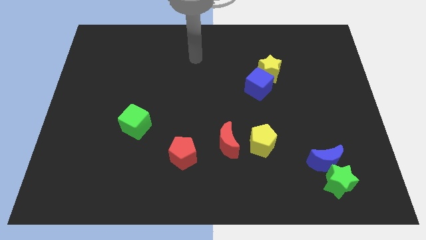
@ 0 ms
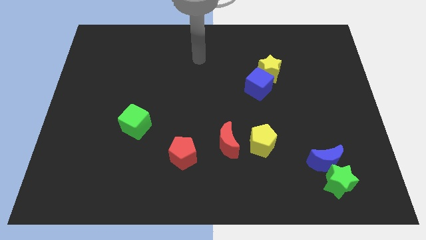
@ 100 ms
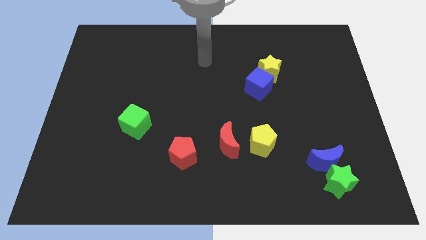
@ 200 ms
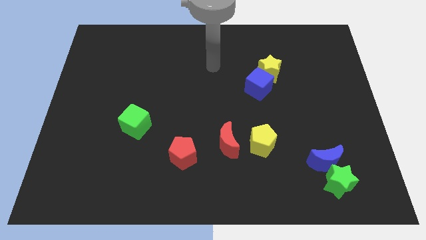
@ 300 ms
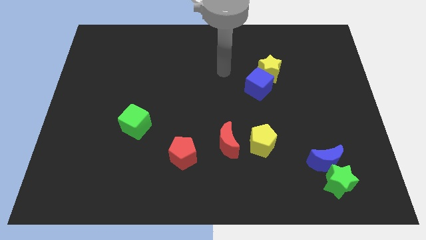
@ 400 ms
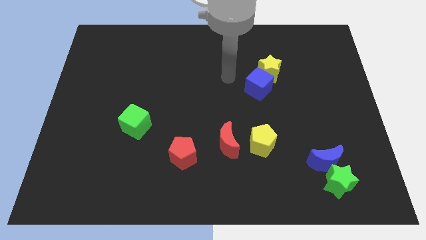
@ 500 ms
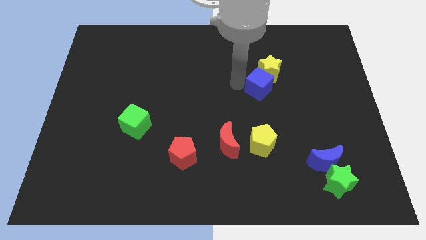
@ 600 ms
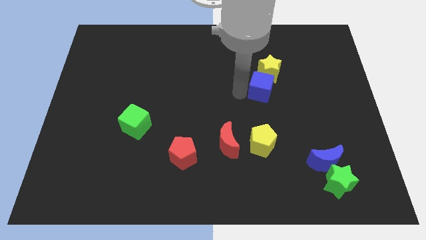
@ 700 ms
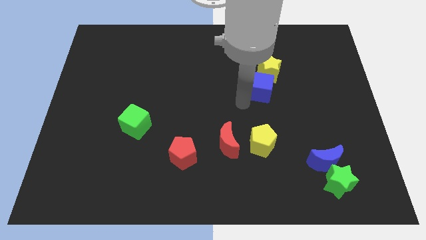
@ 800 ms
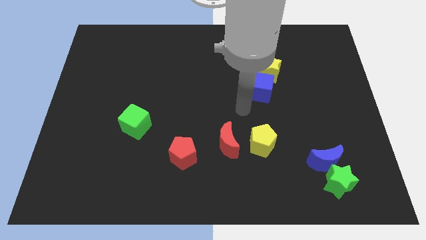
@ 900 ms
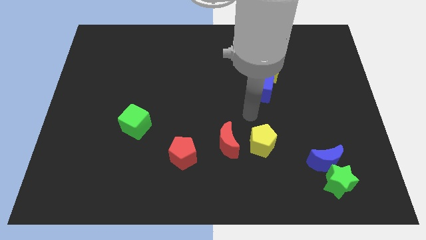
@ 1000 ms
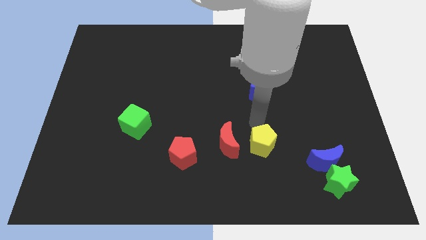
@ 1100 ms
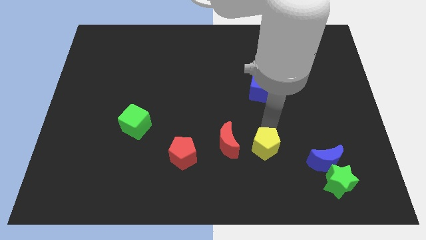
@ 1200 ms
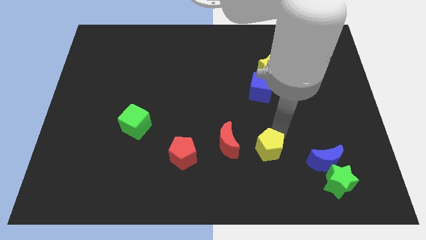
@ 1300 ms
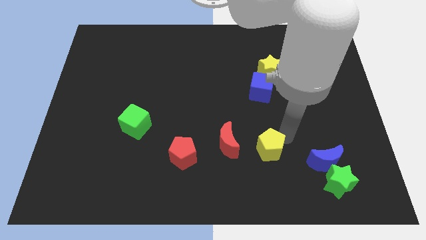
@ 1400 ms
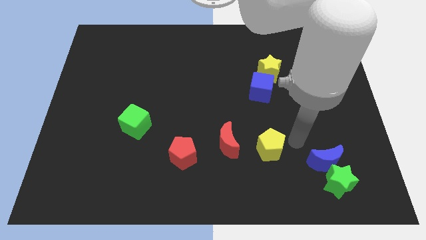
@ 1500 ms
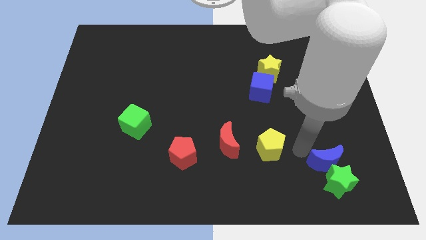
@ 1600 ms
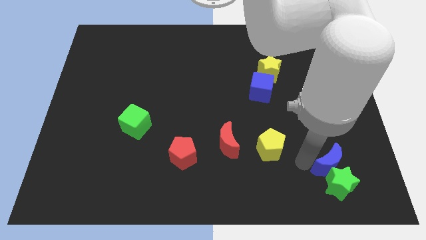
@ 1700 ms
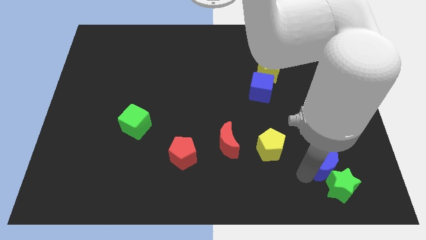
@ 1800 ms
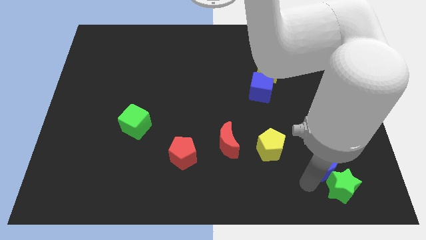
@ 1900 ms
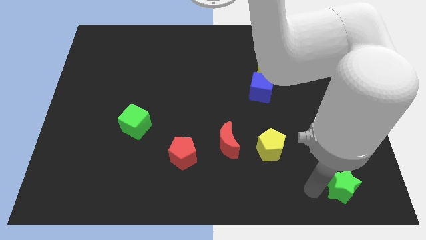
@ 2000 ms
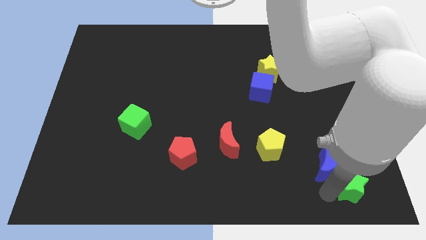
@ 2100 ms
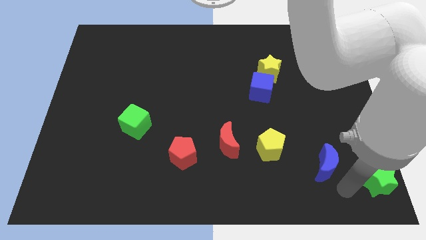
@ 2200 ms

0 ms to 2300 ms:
pull the blue moon apart from the green star

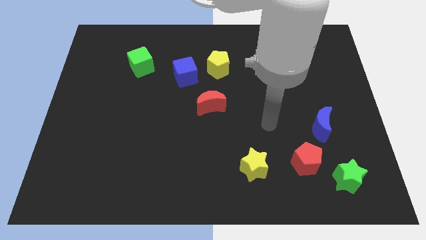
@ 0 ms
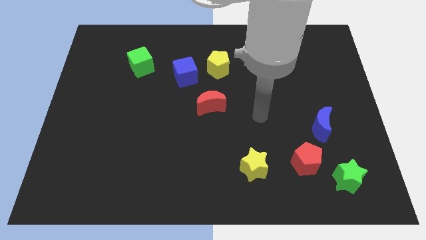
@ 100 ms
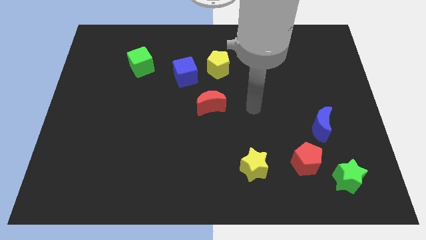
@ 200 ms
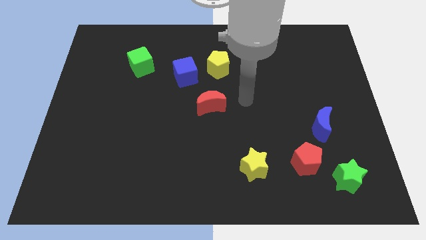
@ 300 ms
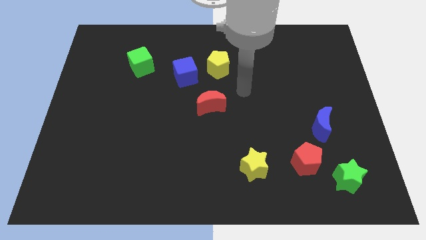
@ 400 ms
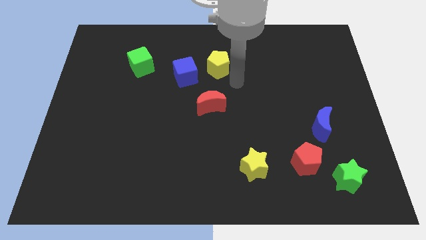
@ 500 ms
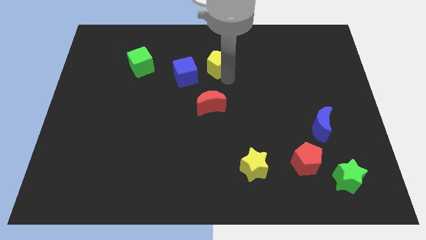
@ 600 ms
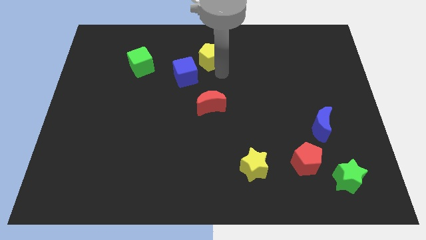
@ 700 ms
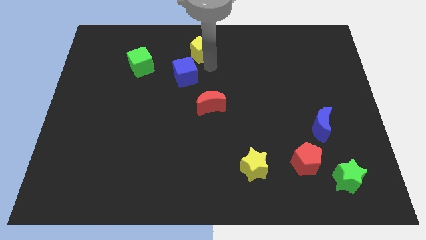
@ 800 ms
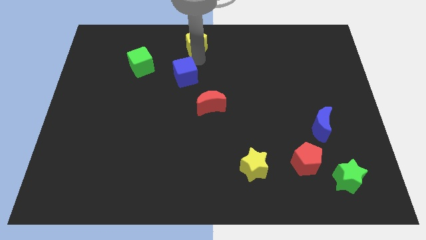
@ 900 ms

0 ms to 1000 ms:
move the blue cube away from the yellow pentagon

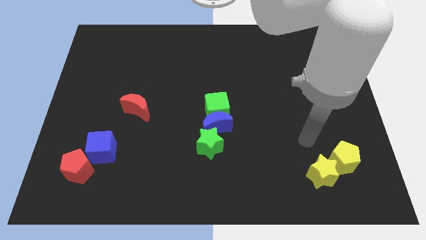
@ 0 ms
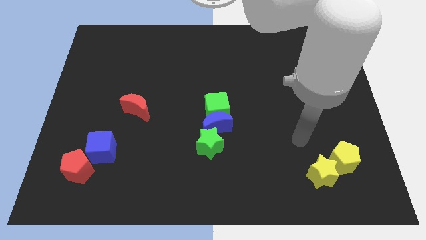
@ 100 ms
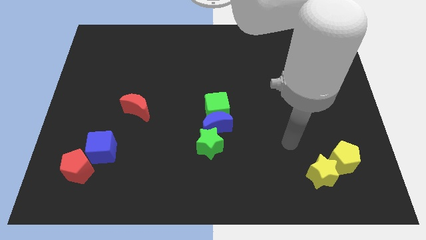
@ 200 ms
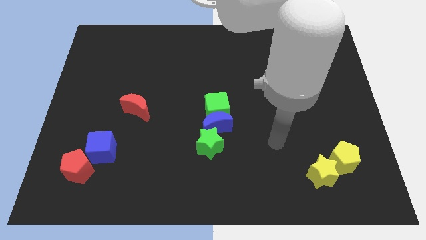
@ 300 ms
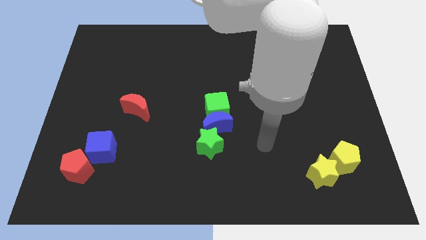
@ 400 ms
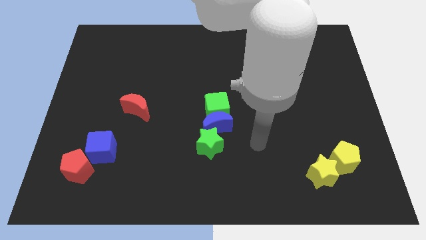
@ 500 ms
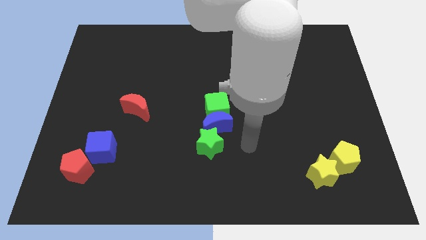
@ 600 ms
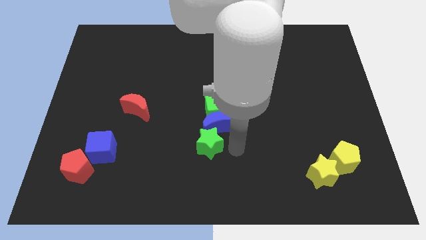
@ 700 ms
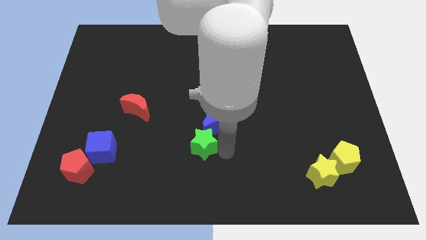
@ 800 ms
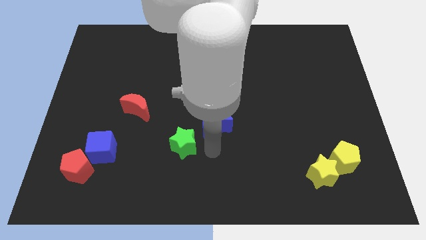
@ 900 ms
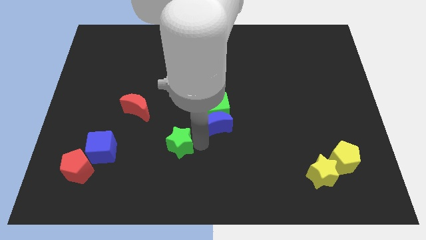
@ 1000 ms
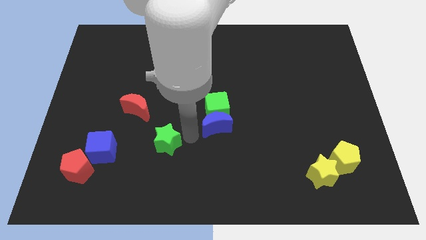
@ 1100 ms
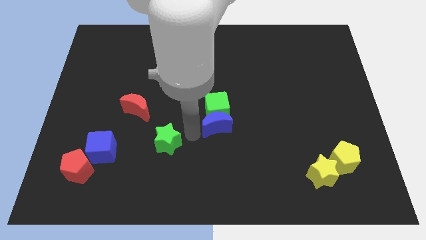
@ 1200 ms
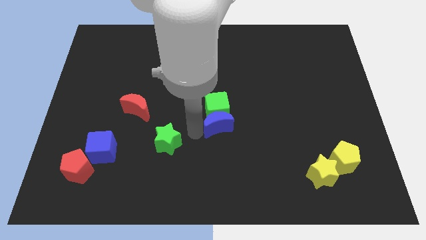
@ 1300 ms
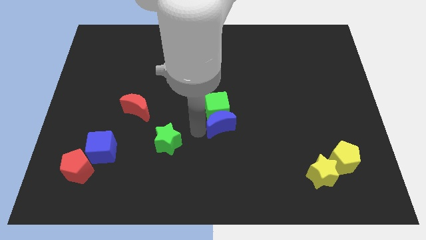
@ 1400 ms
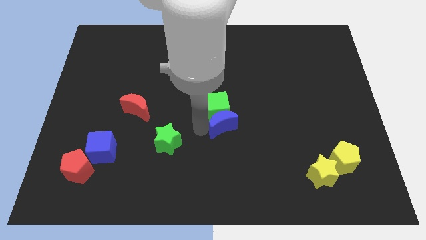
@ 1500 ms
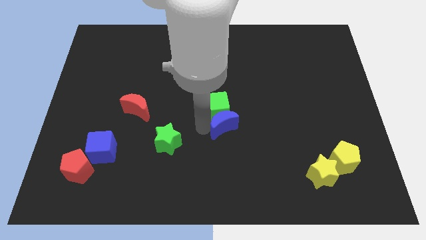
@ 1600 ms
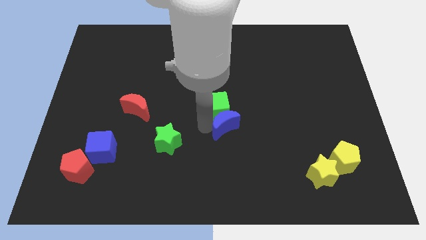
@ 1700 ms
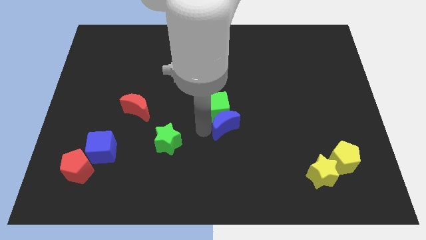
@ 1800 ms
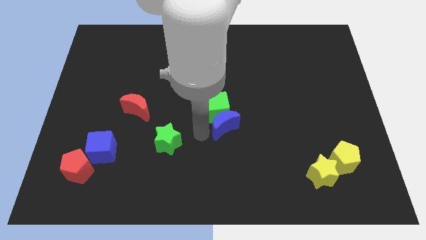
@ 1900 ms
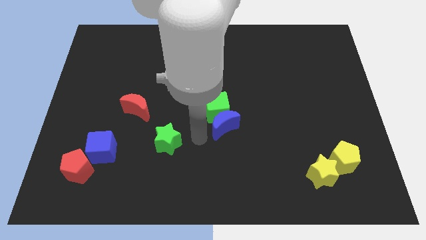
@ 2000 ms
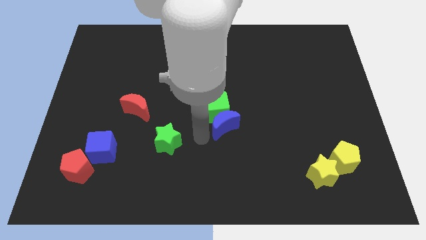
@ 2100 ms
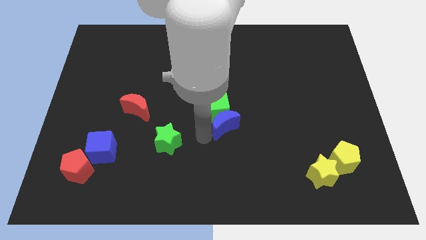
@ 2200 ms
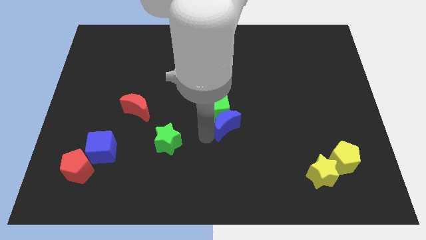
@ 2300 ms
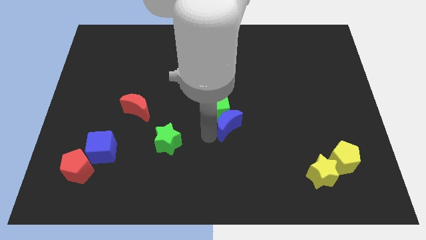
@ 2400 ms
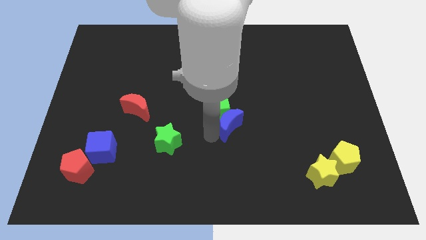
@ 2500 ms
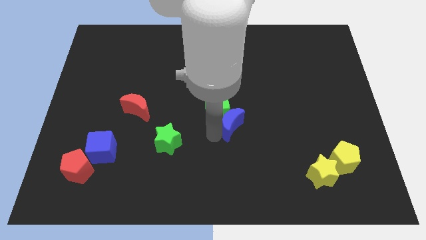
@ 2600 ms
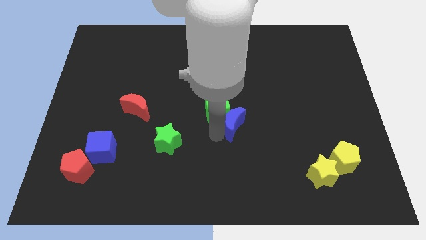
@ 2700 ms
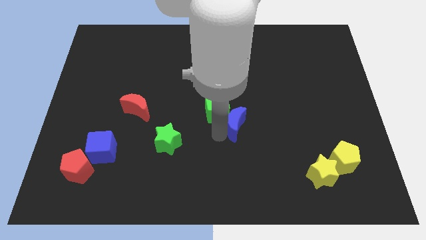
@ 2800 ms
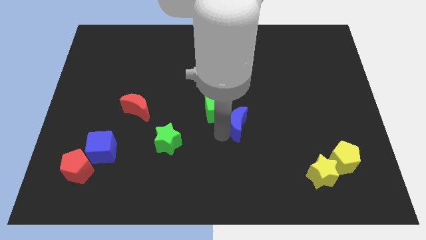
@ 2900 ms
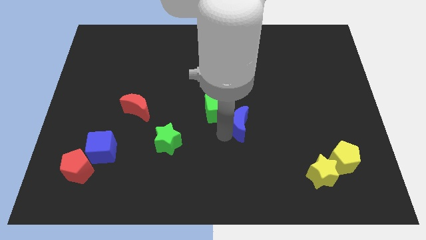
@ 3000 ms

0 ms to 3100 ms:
separate the blue moon from the green cube and green star

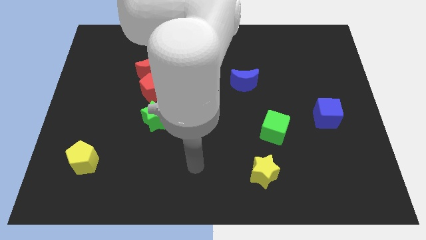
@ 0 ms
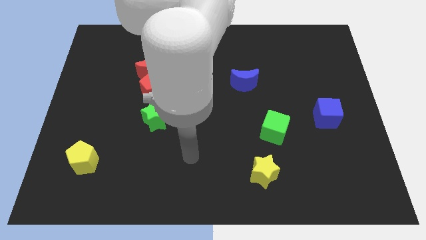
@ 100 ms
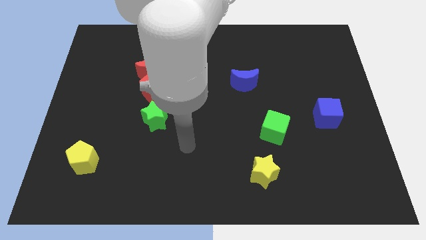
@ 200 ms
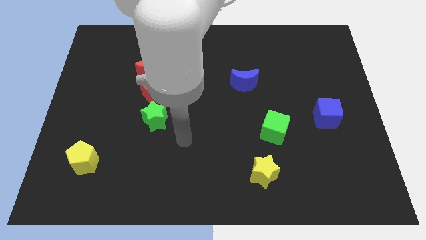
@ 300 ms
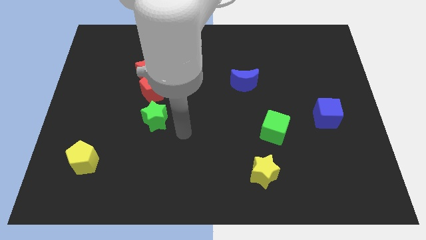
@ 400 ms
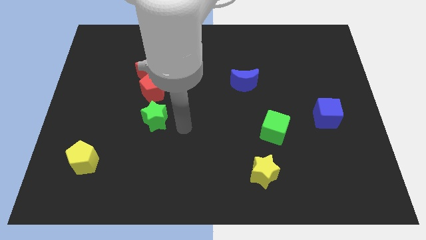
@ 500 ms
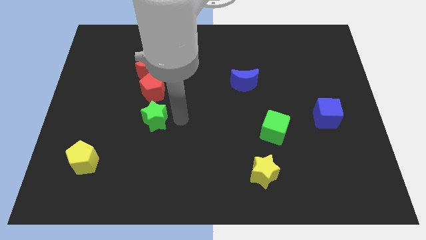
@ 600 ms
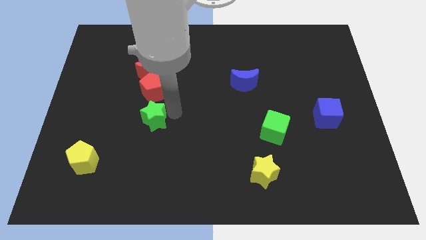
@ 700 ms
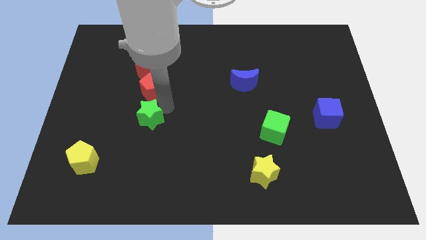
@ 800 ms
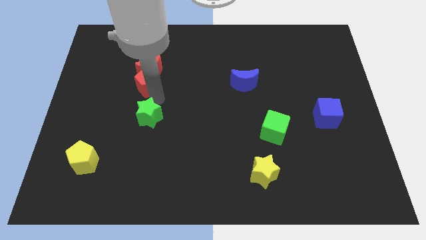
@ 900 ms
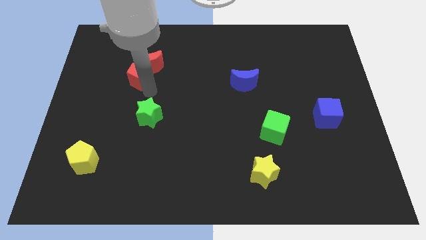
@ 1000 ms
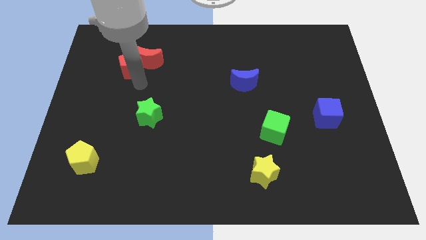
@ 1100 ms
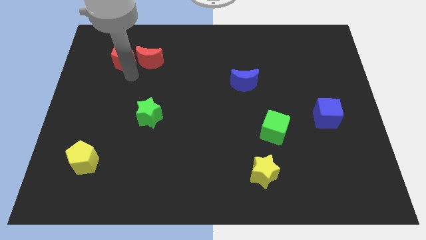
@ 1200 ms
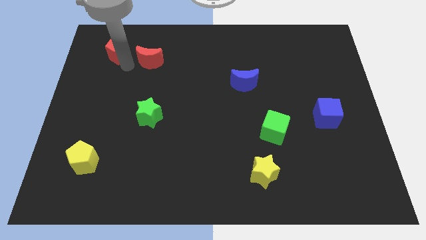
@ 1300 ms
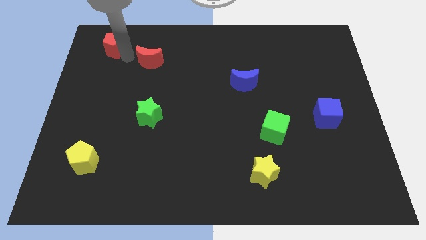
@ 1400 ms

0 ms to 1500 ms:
separate the red moon from the red pentagon

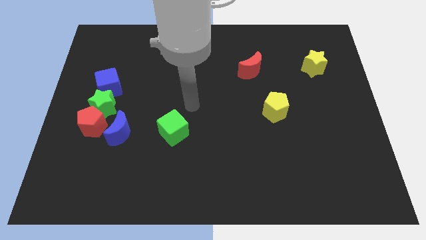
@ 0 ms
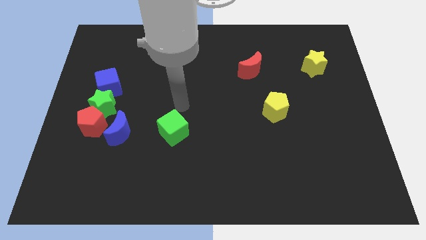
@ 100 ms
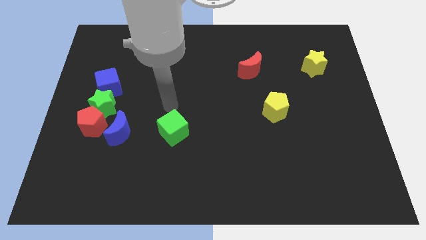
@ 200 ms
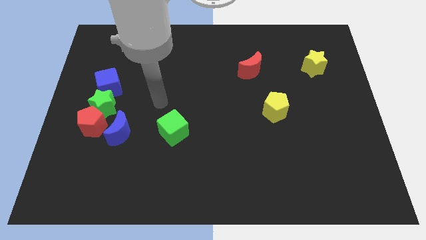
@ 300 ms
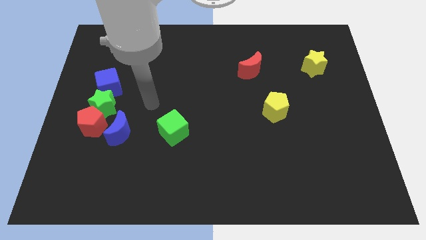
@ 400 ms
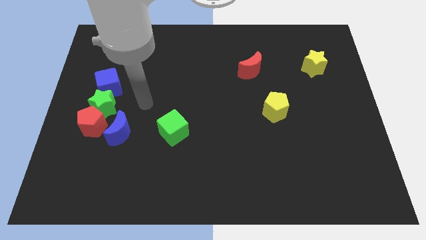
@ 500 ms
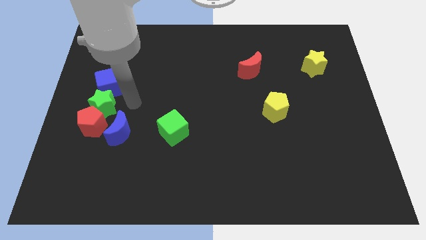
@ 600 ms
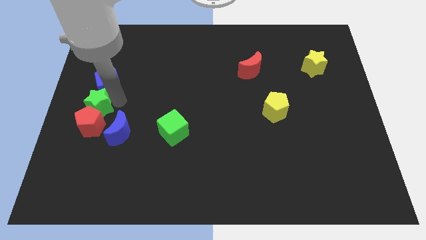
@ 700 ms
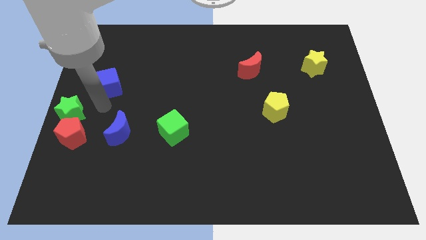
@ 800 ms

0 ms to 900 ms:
move the blue cube away from the green star

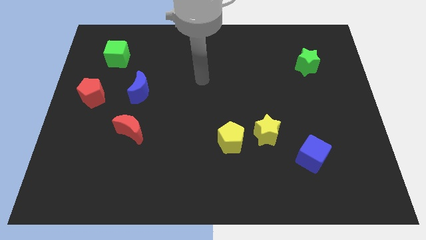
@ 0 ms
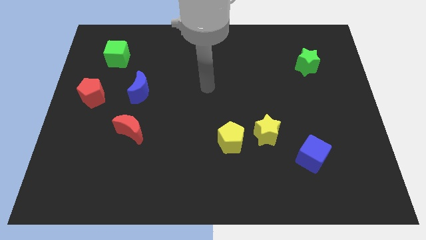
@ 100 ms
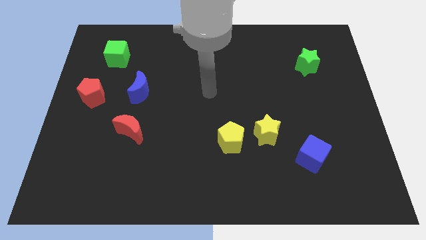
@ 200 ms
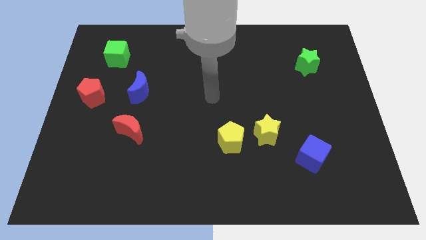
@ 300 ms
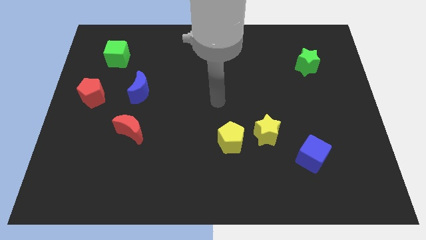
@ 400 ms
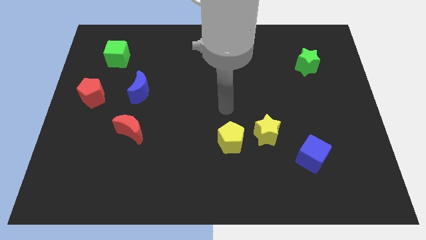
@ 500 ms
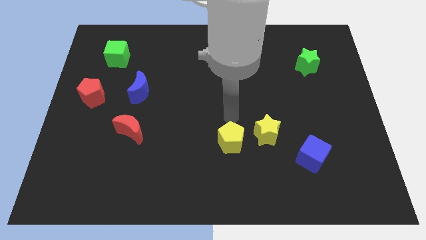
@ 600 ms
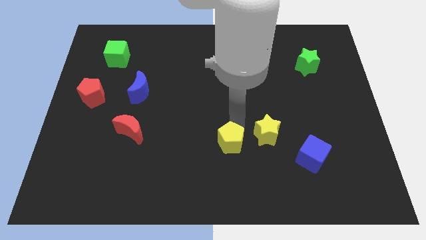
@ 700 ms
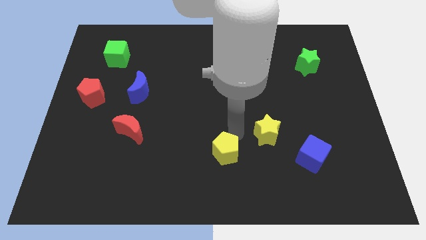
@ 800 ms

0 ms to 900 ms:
separate the yellow star from the yellow pentagon
